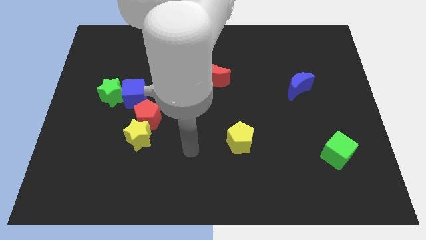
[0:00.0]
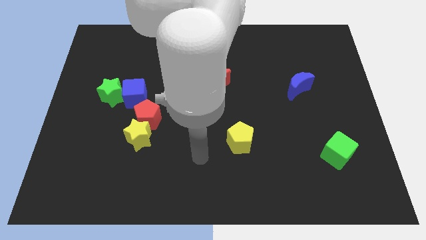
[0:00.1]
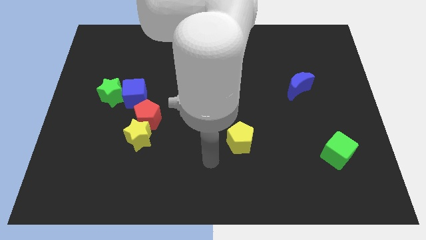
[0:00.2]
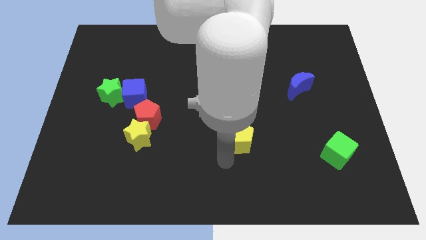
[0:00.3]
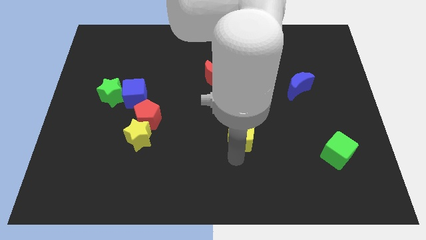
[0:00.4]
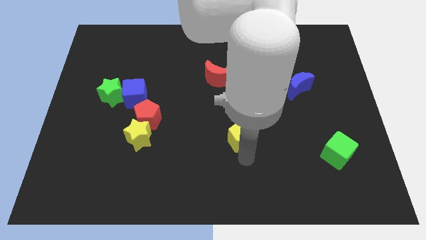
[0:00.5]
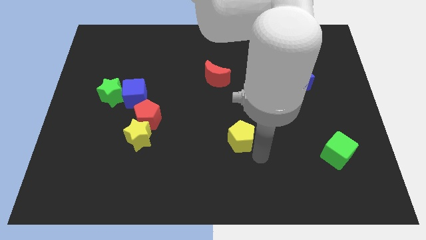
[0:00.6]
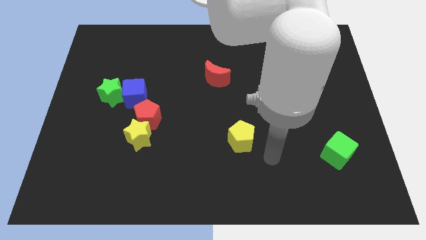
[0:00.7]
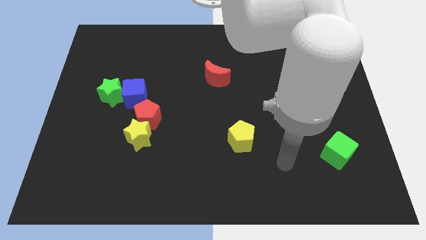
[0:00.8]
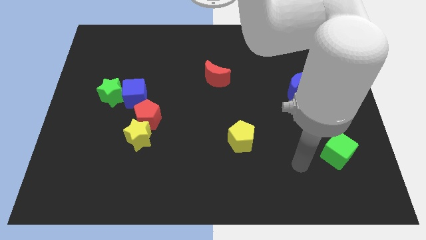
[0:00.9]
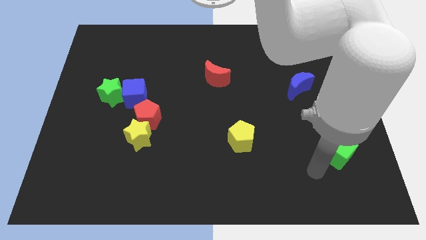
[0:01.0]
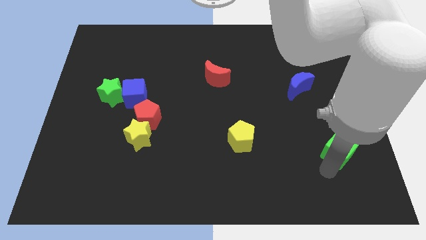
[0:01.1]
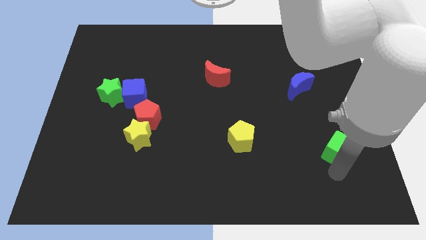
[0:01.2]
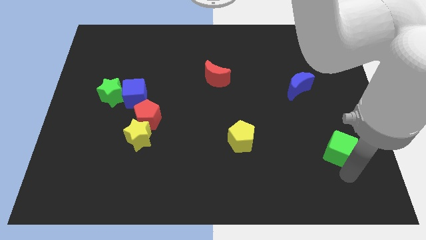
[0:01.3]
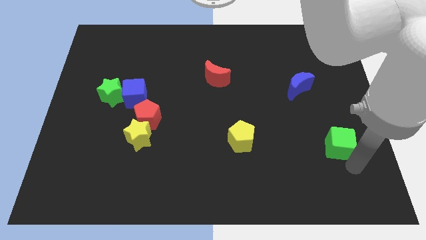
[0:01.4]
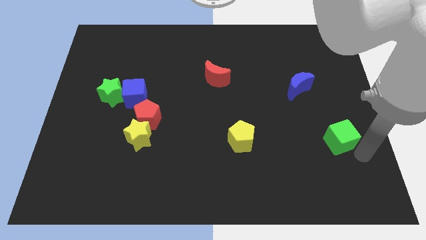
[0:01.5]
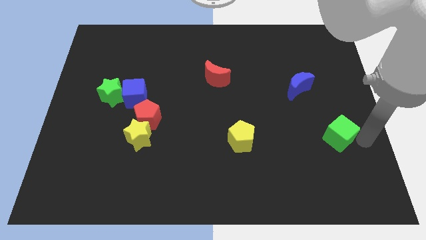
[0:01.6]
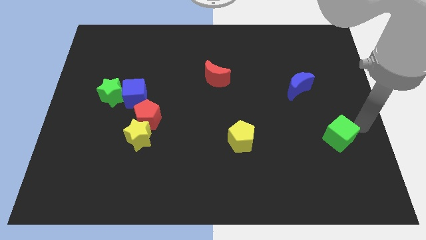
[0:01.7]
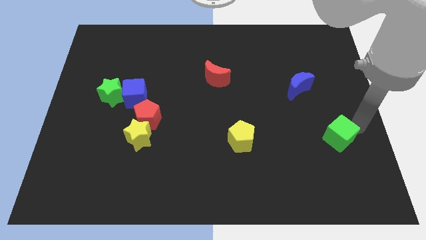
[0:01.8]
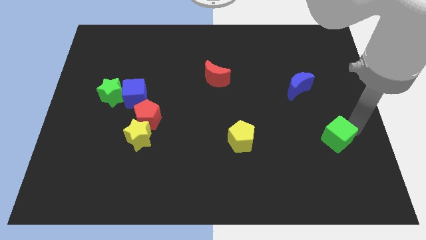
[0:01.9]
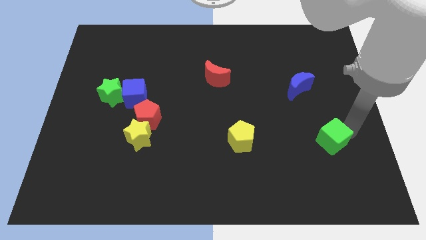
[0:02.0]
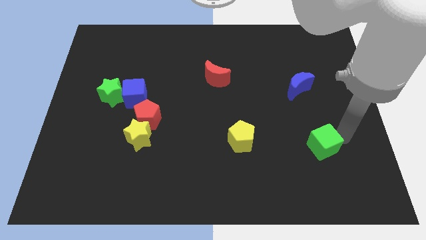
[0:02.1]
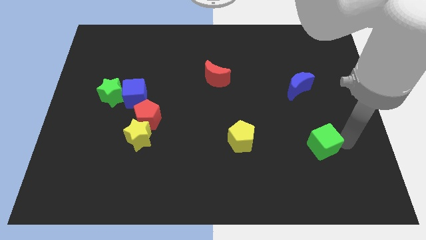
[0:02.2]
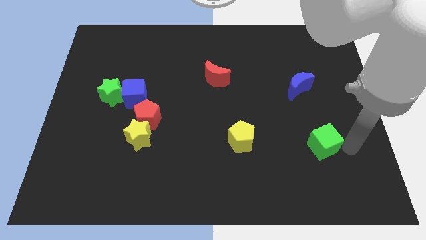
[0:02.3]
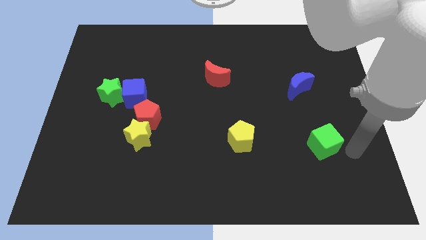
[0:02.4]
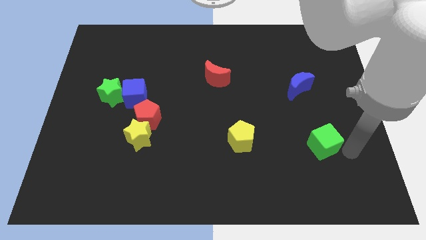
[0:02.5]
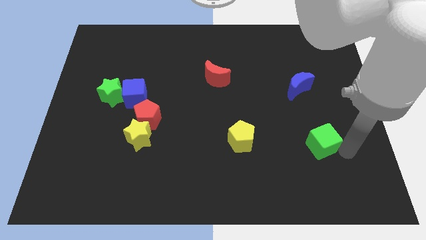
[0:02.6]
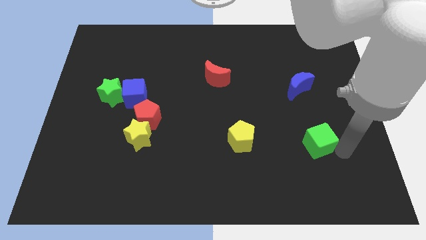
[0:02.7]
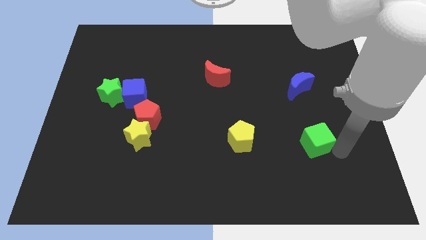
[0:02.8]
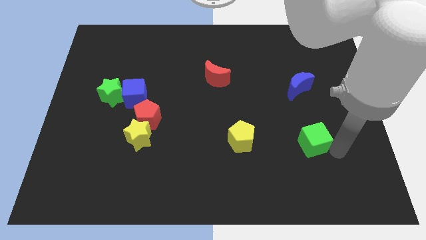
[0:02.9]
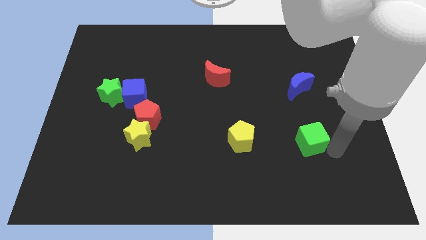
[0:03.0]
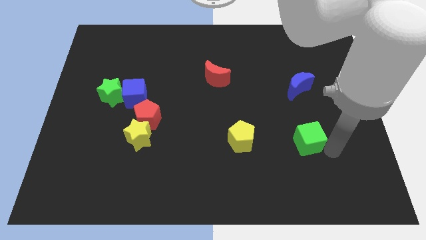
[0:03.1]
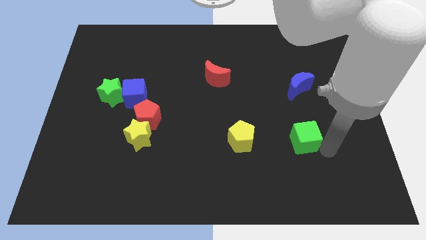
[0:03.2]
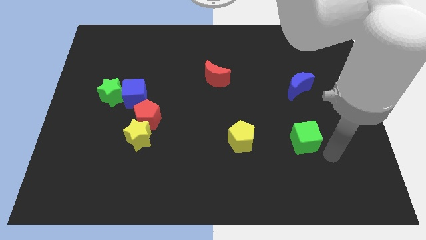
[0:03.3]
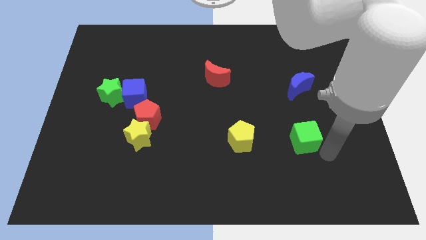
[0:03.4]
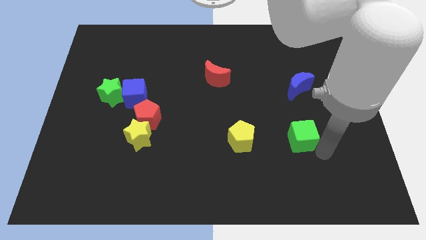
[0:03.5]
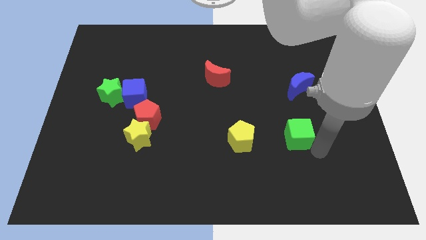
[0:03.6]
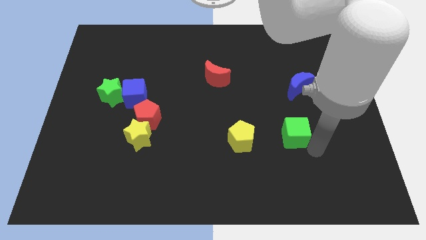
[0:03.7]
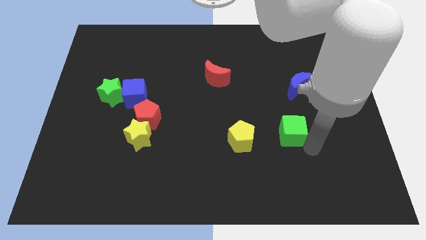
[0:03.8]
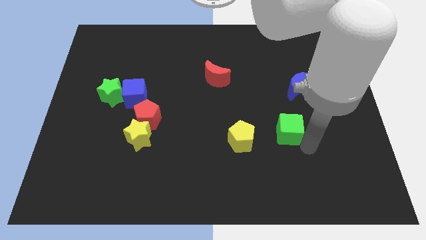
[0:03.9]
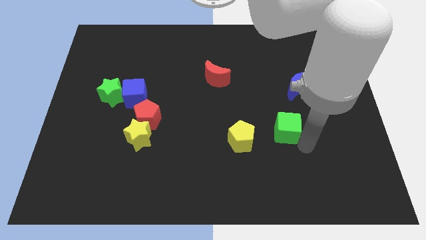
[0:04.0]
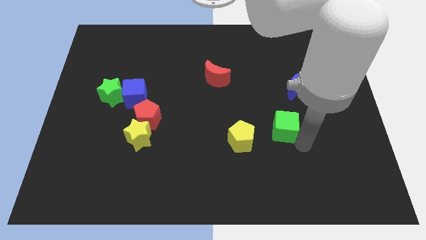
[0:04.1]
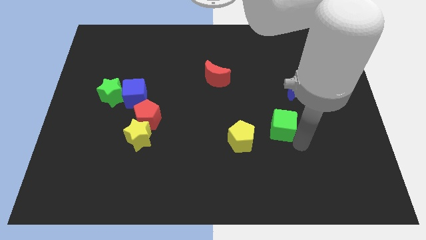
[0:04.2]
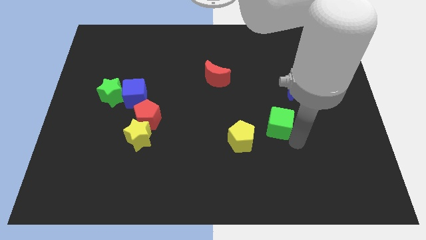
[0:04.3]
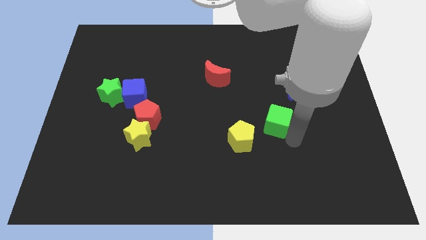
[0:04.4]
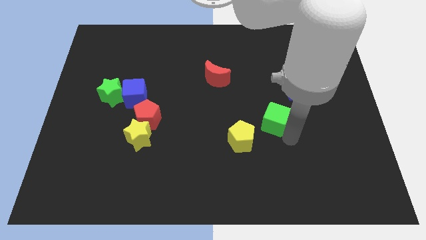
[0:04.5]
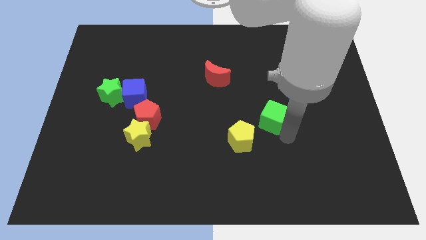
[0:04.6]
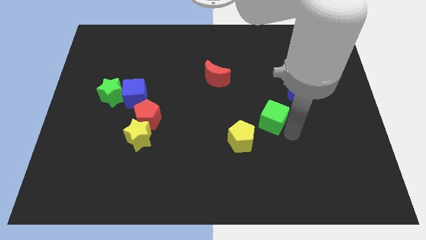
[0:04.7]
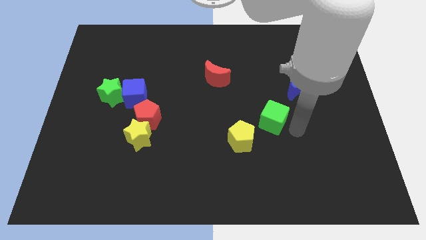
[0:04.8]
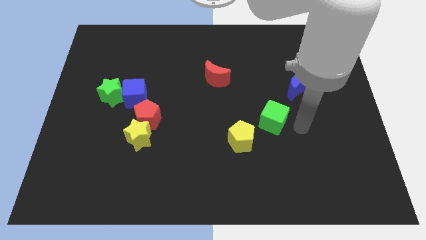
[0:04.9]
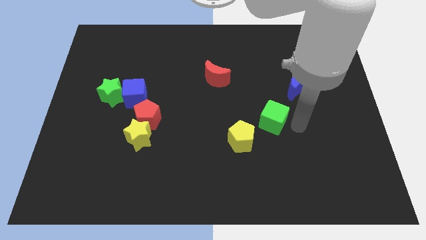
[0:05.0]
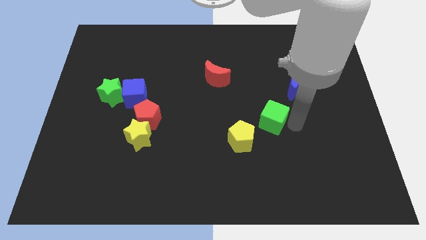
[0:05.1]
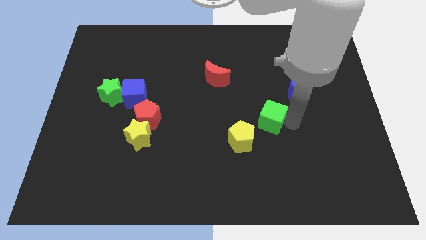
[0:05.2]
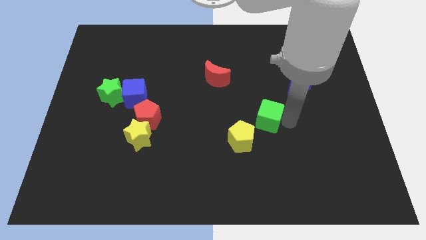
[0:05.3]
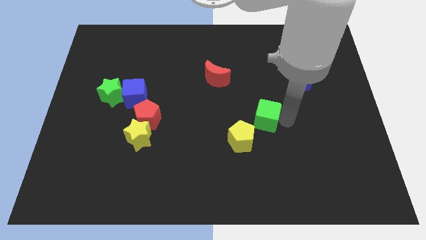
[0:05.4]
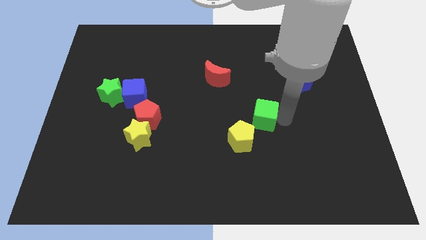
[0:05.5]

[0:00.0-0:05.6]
move the green cube to the center of the board

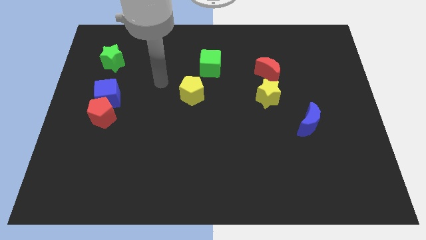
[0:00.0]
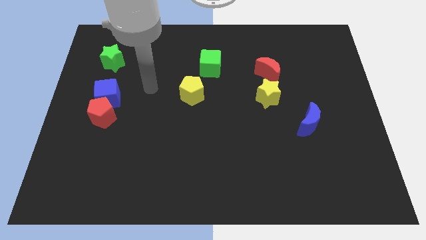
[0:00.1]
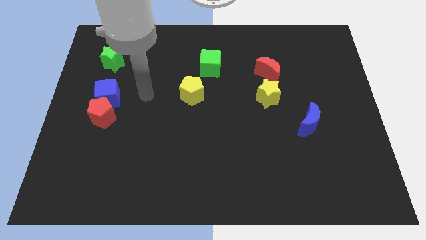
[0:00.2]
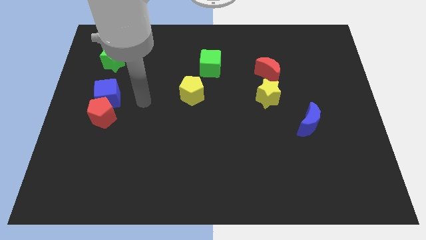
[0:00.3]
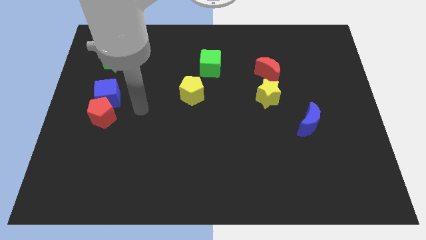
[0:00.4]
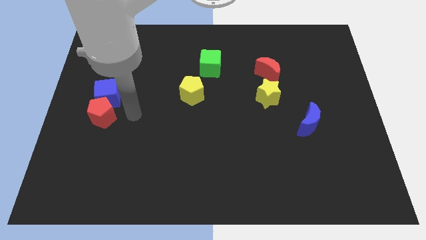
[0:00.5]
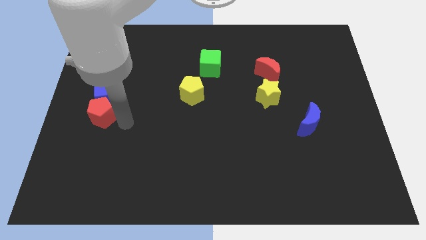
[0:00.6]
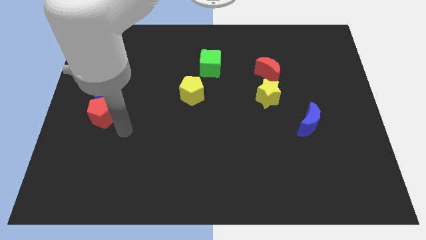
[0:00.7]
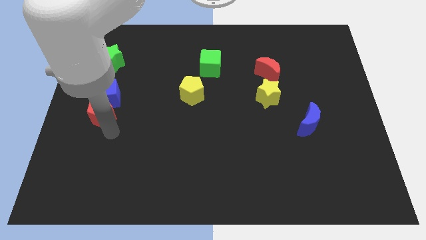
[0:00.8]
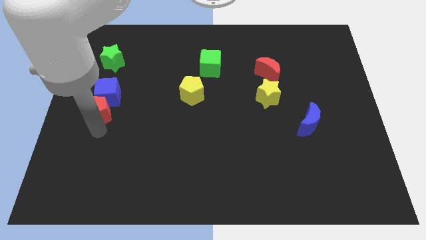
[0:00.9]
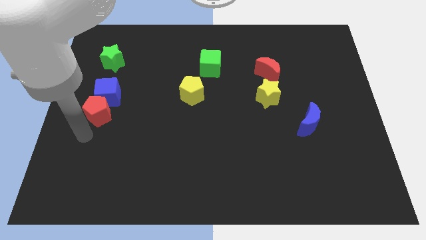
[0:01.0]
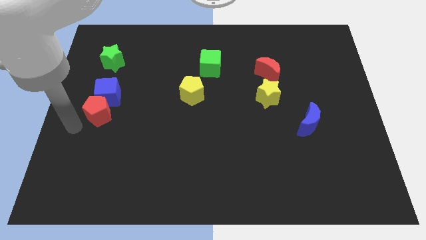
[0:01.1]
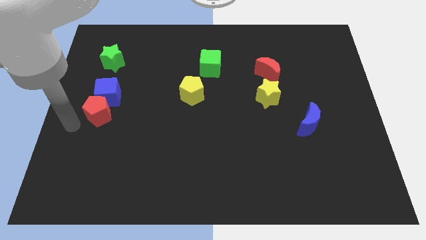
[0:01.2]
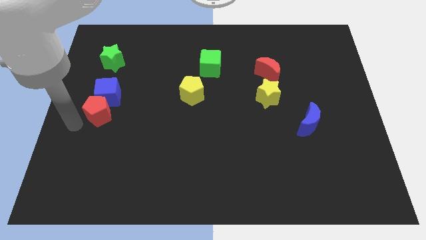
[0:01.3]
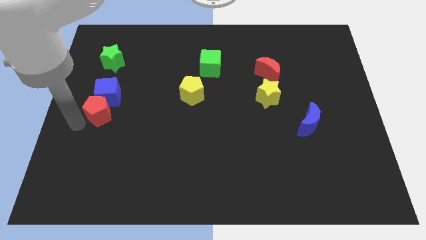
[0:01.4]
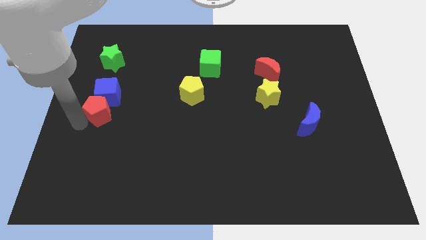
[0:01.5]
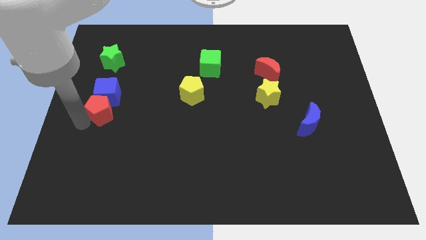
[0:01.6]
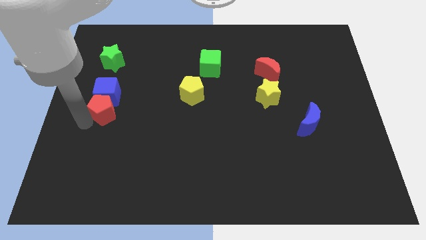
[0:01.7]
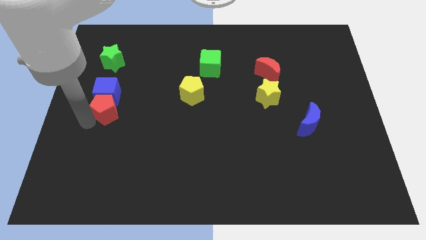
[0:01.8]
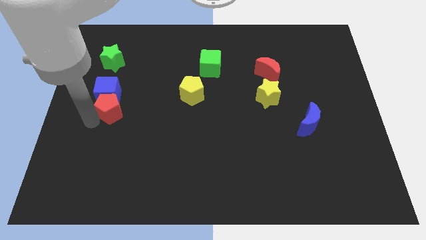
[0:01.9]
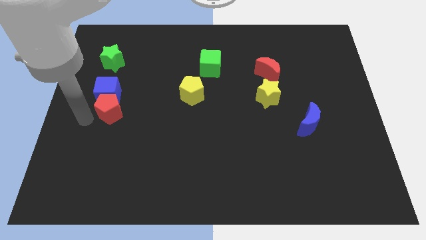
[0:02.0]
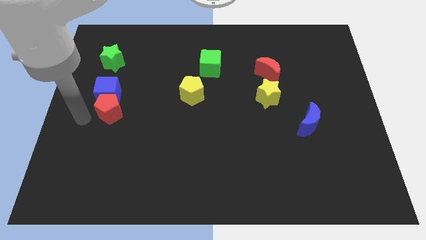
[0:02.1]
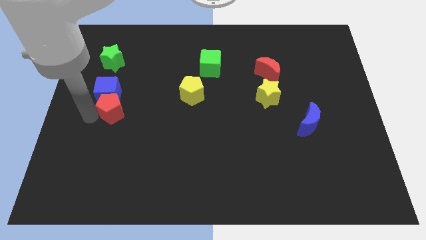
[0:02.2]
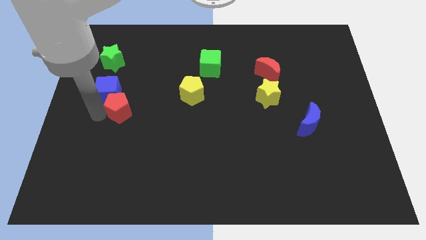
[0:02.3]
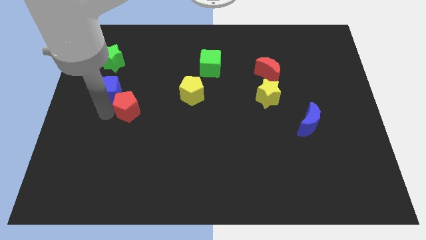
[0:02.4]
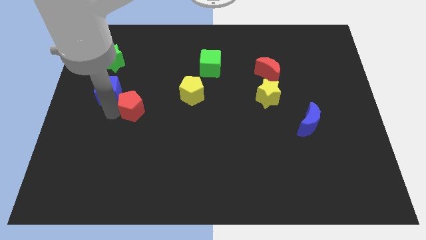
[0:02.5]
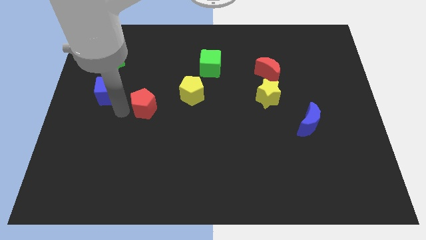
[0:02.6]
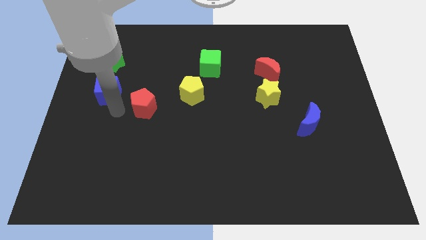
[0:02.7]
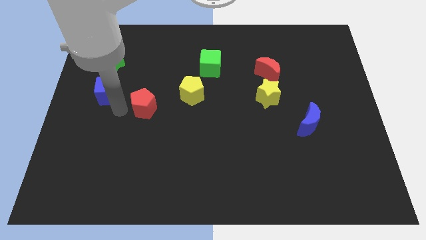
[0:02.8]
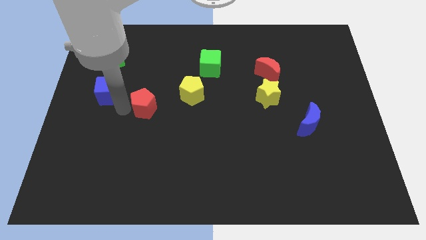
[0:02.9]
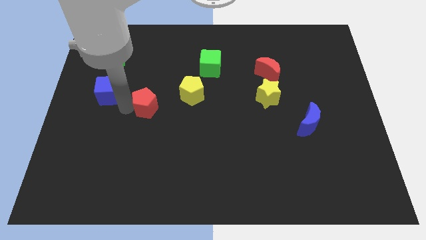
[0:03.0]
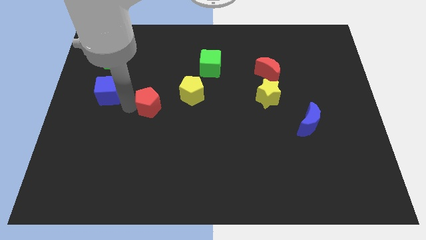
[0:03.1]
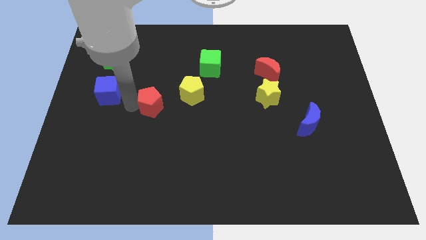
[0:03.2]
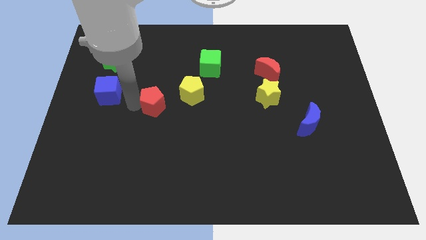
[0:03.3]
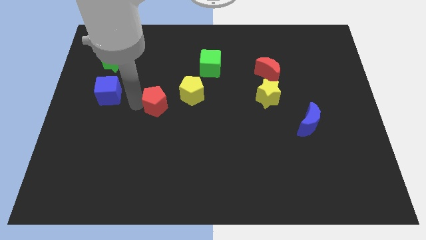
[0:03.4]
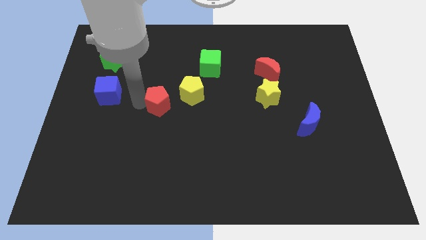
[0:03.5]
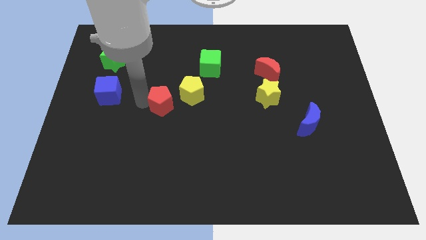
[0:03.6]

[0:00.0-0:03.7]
slide the red pentagon to the center of the board
